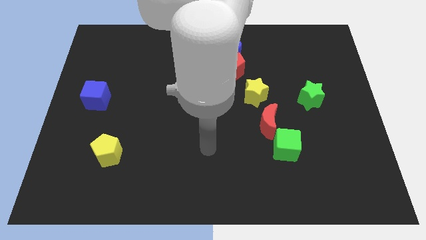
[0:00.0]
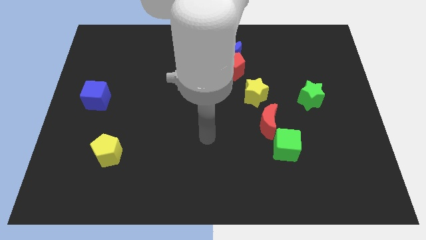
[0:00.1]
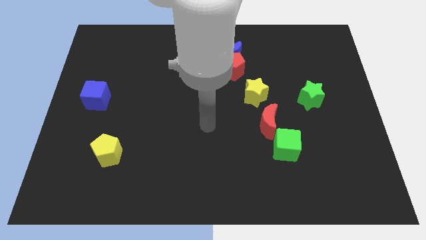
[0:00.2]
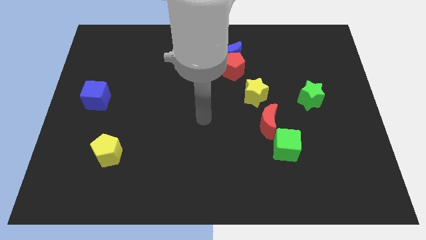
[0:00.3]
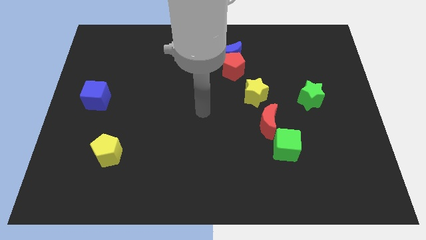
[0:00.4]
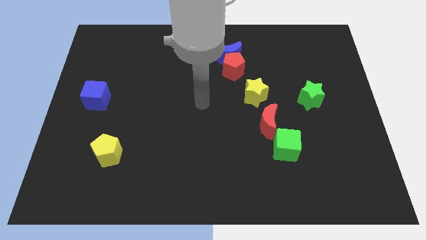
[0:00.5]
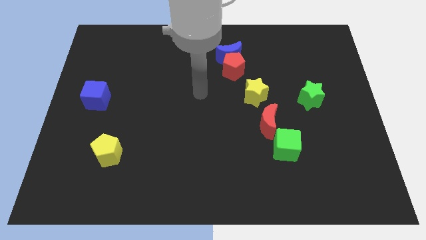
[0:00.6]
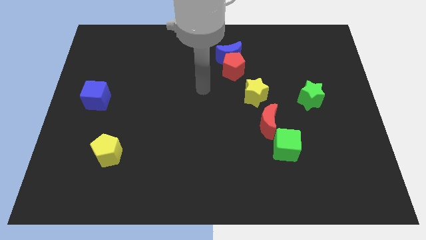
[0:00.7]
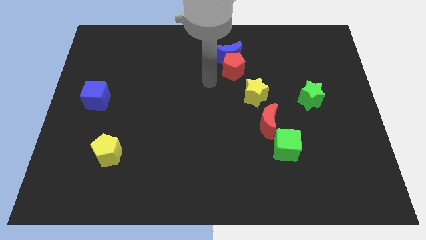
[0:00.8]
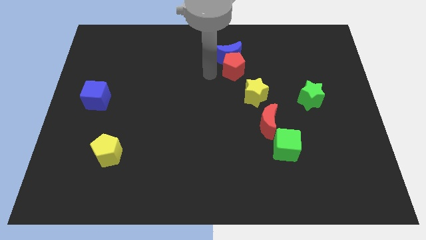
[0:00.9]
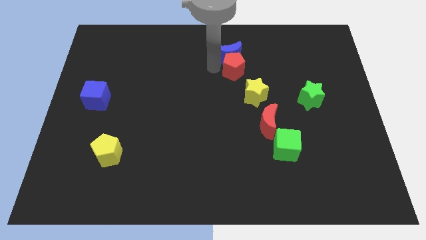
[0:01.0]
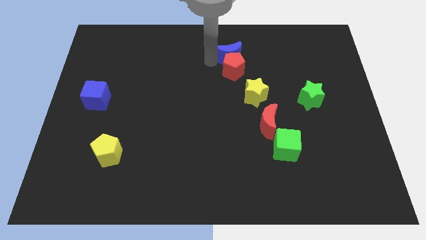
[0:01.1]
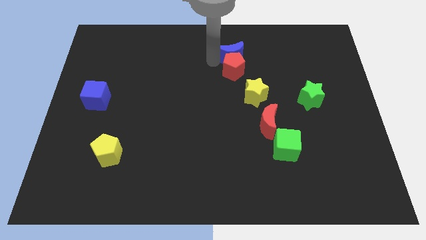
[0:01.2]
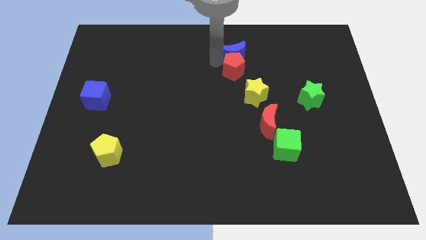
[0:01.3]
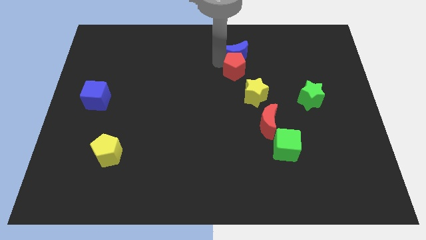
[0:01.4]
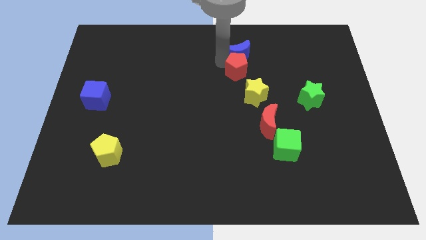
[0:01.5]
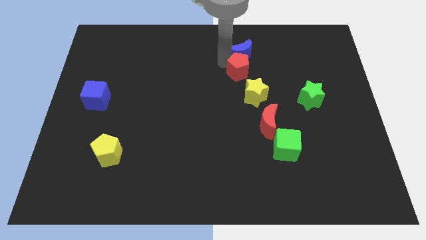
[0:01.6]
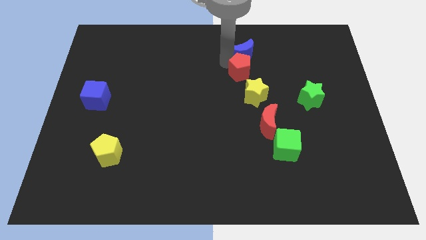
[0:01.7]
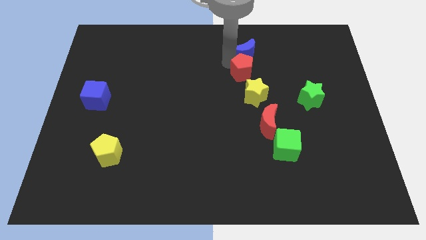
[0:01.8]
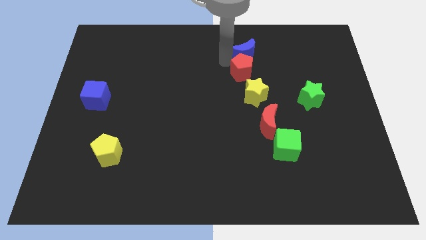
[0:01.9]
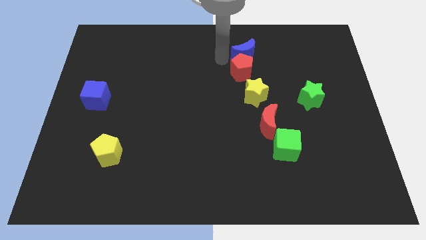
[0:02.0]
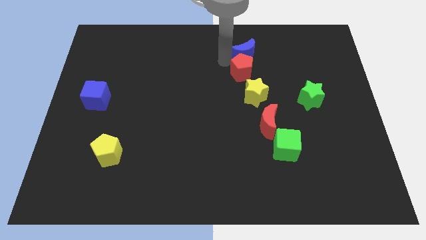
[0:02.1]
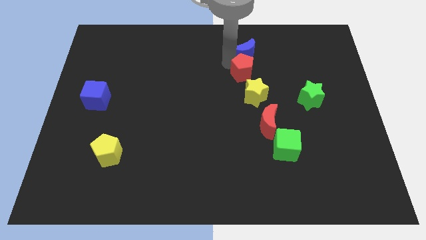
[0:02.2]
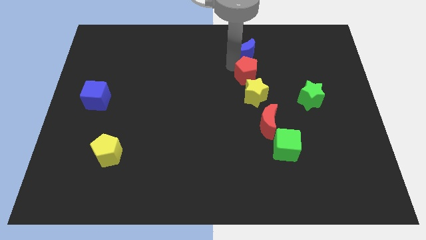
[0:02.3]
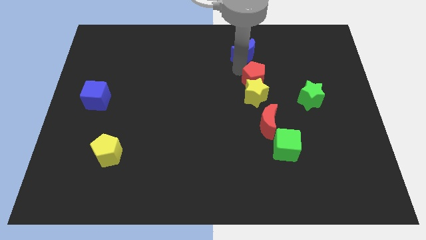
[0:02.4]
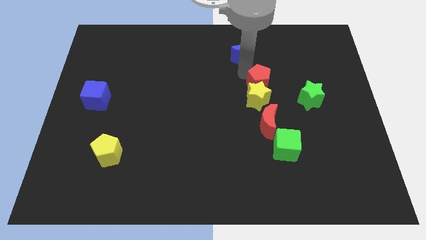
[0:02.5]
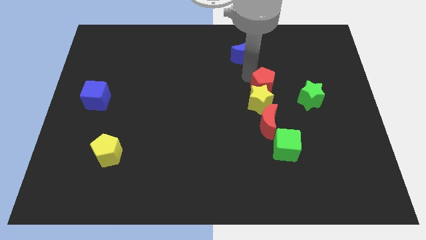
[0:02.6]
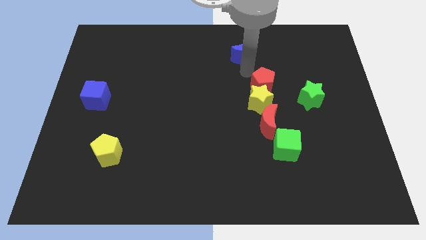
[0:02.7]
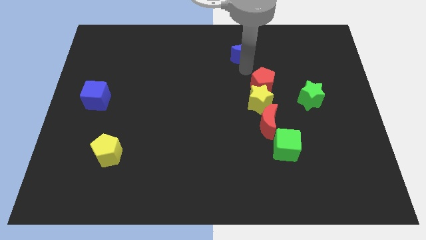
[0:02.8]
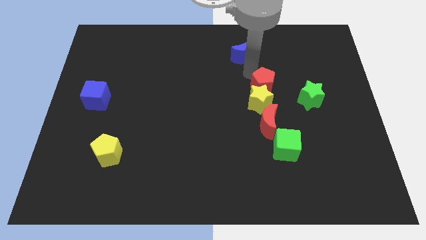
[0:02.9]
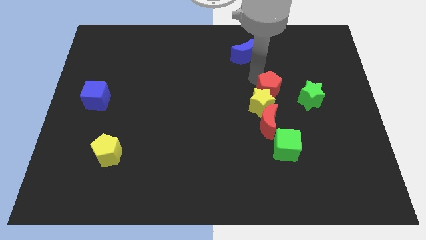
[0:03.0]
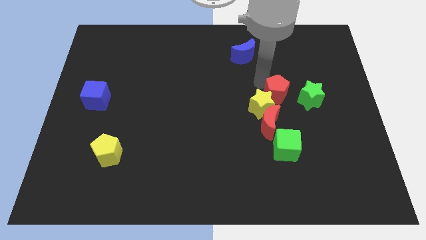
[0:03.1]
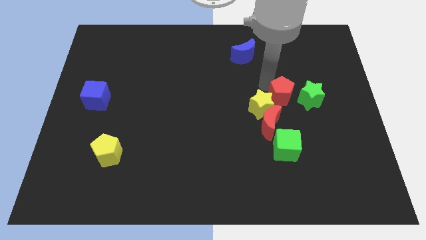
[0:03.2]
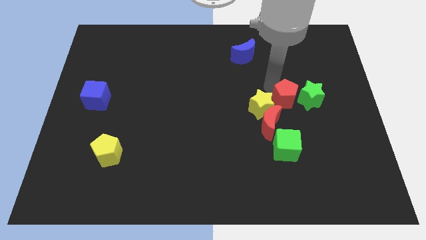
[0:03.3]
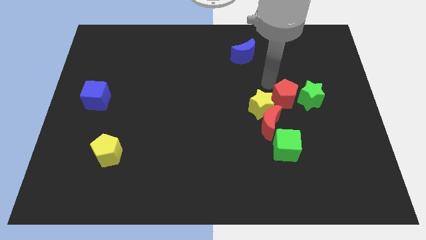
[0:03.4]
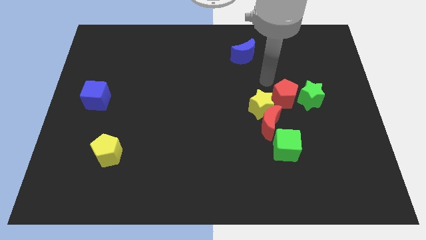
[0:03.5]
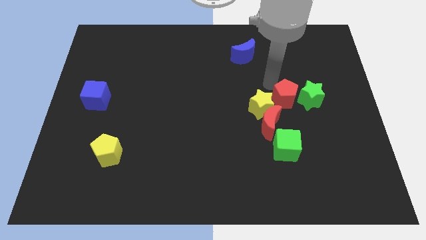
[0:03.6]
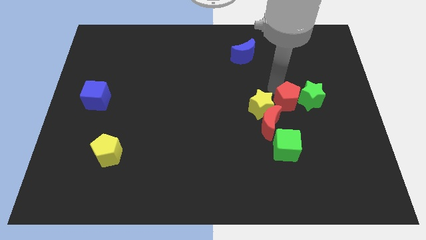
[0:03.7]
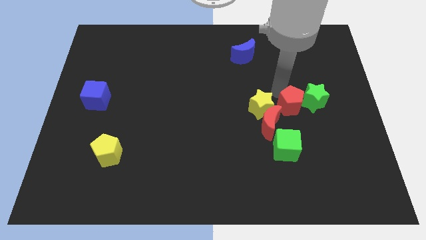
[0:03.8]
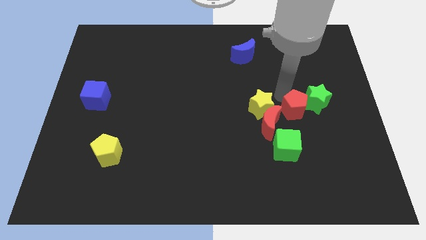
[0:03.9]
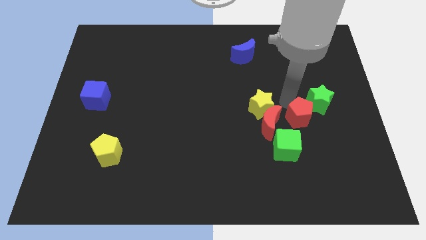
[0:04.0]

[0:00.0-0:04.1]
push the red pentagon diagonally down and right

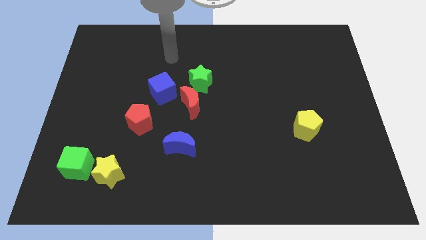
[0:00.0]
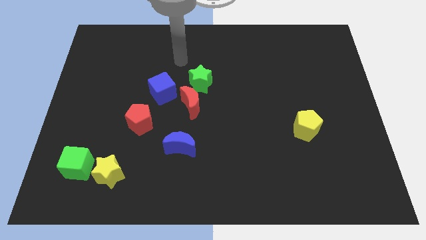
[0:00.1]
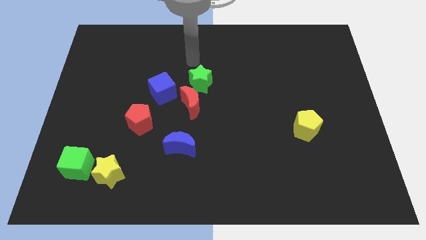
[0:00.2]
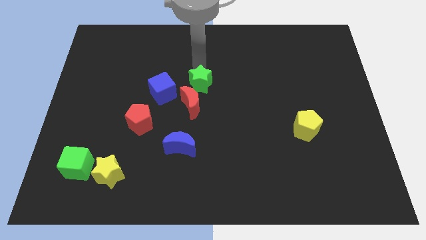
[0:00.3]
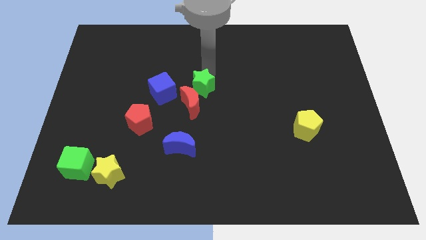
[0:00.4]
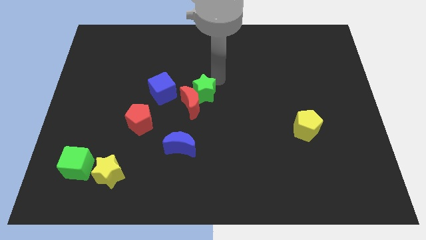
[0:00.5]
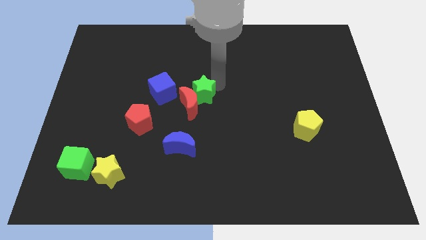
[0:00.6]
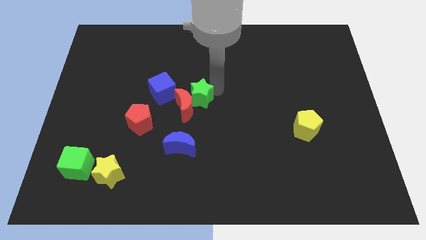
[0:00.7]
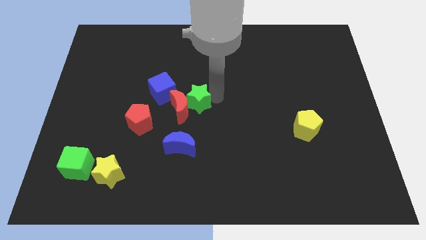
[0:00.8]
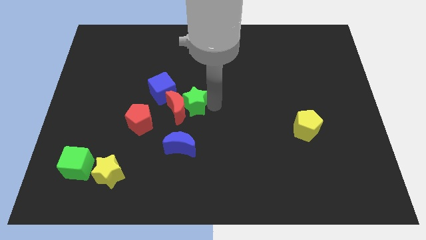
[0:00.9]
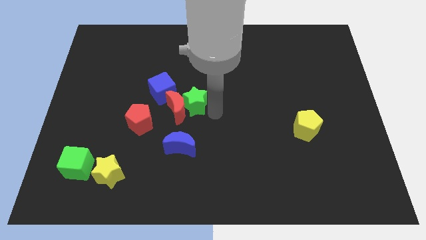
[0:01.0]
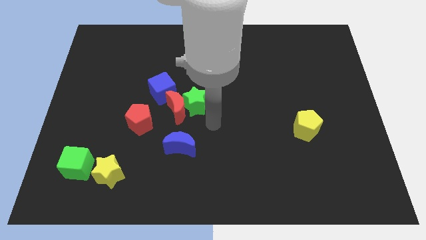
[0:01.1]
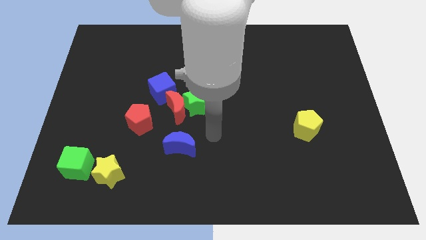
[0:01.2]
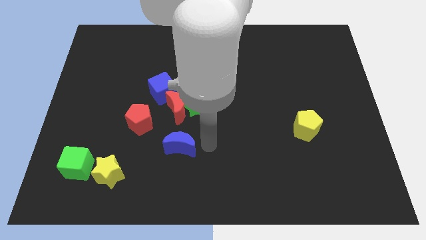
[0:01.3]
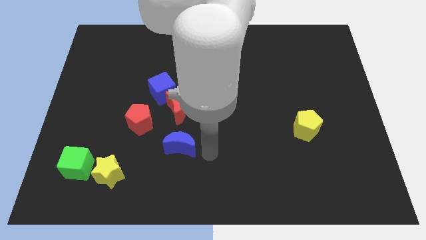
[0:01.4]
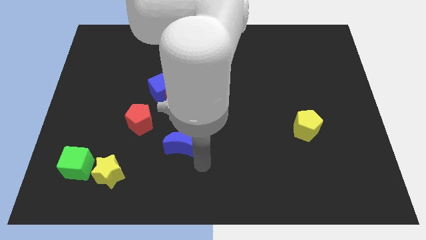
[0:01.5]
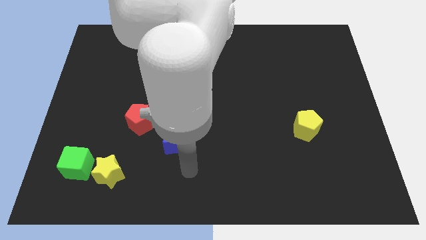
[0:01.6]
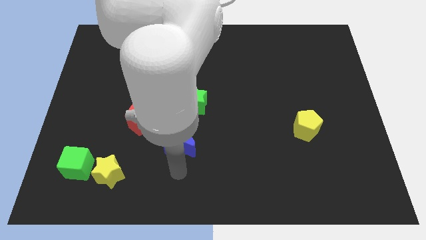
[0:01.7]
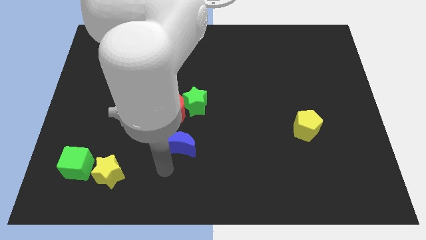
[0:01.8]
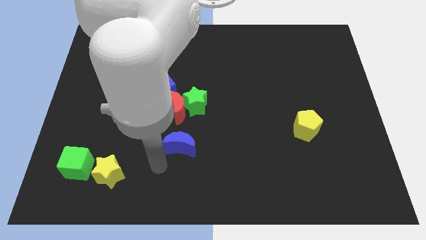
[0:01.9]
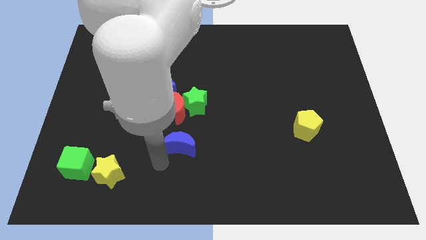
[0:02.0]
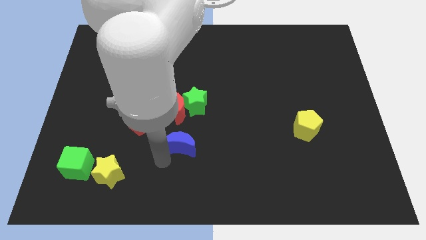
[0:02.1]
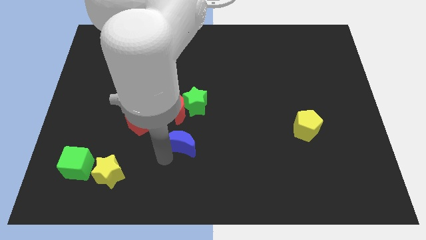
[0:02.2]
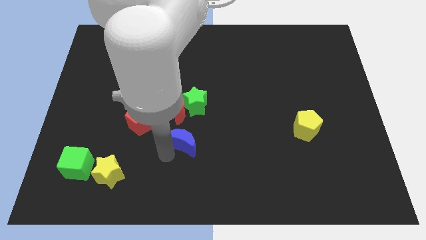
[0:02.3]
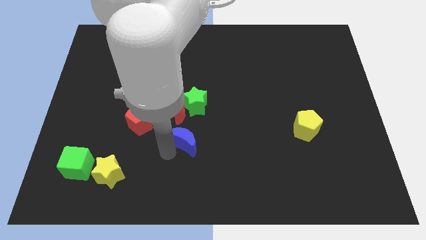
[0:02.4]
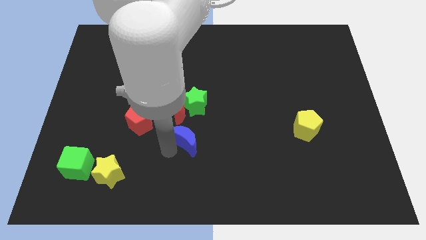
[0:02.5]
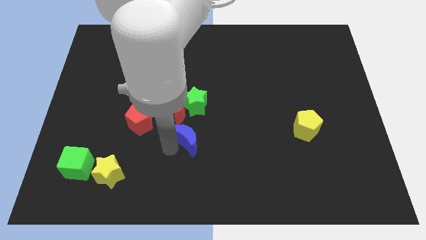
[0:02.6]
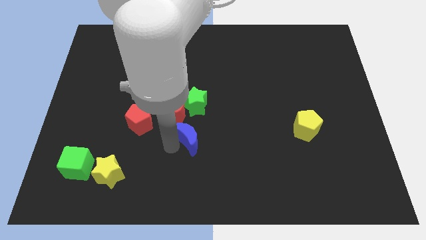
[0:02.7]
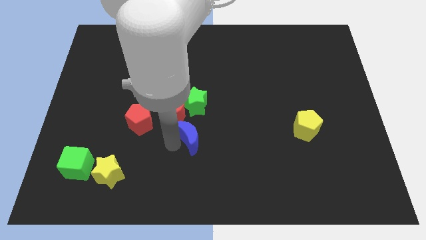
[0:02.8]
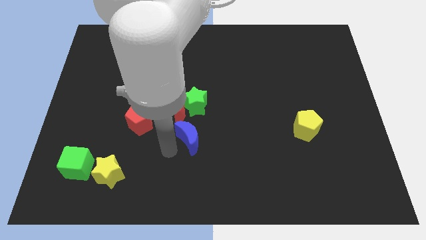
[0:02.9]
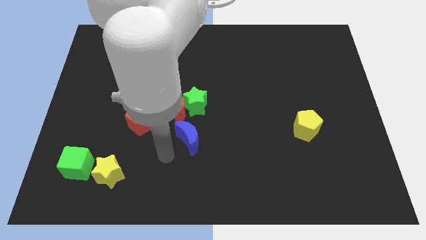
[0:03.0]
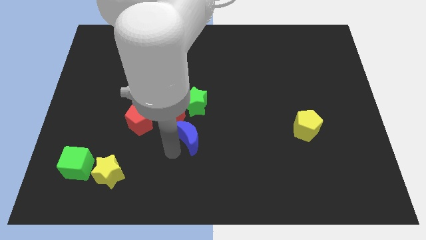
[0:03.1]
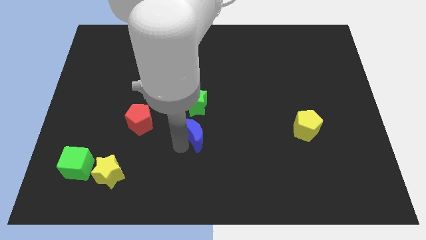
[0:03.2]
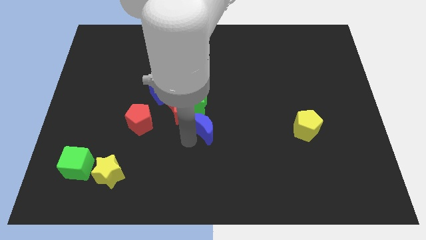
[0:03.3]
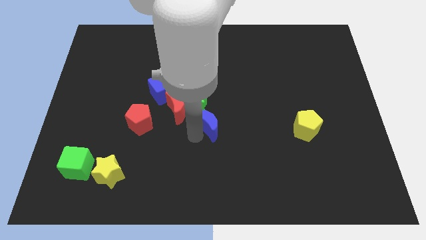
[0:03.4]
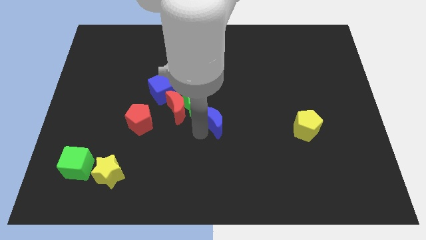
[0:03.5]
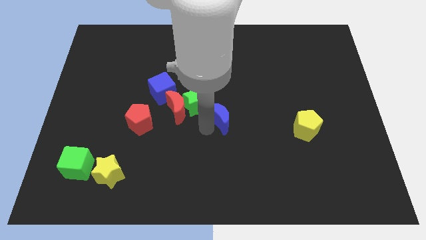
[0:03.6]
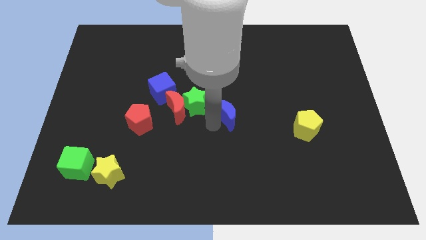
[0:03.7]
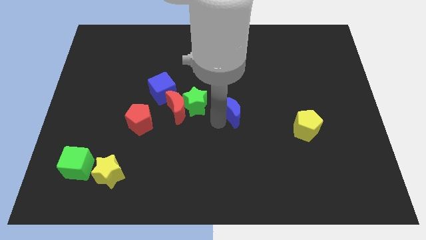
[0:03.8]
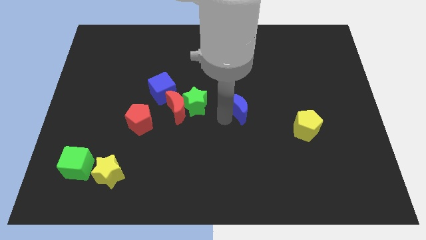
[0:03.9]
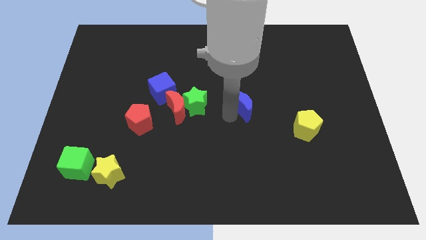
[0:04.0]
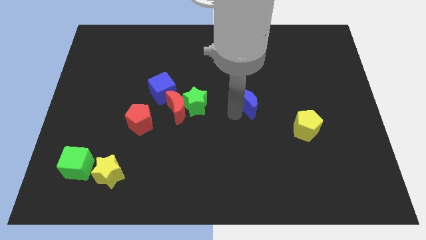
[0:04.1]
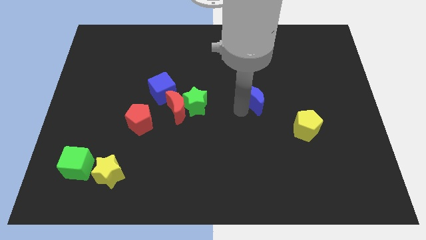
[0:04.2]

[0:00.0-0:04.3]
move the blue moon upwards and right diagonally
